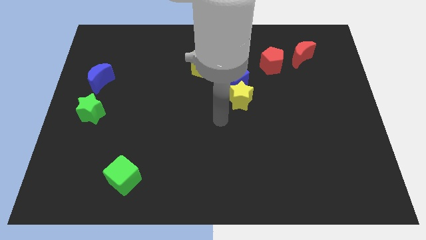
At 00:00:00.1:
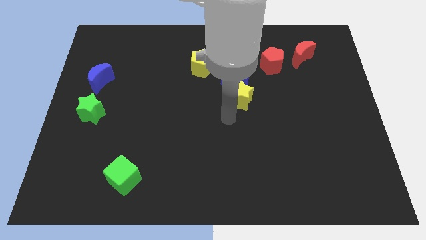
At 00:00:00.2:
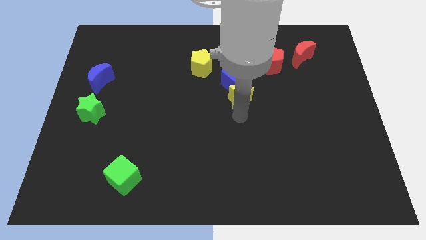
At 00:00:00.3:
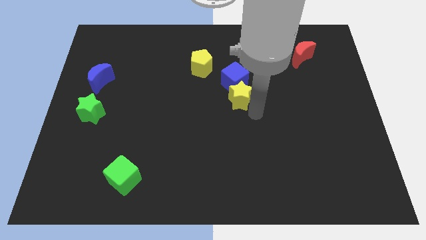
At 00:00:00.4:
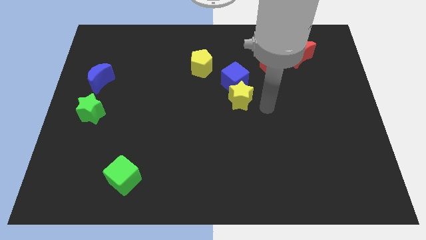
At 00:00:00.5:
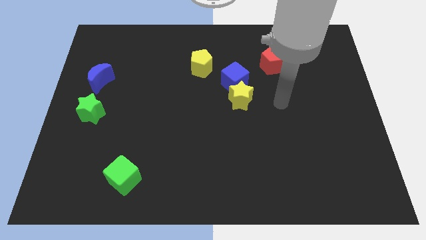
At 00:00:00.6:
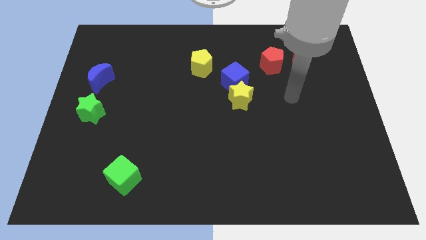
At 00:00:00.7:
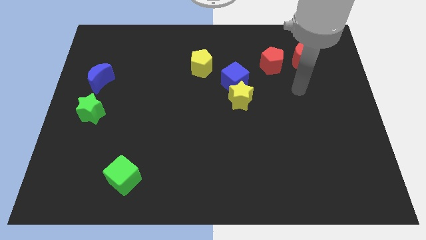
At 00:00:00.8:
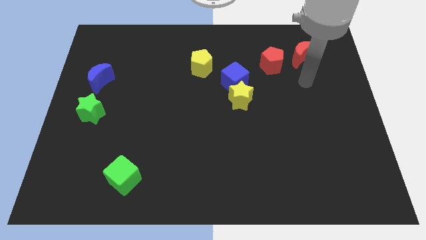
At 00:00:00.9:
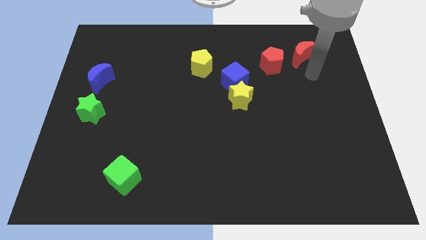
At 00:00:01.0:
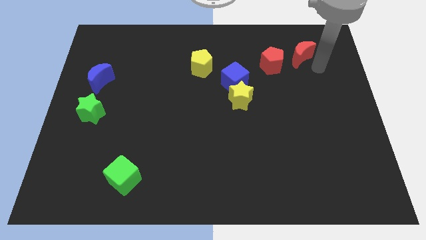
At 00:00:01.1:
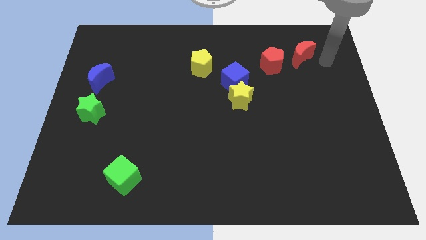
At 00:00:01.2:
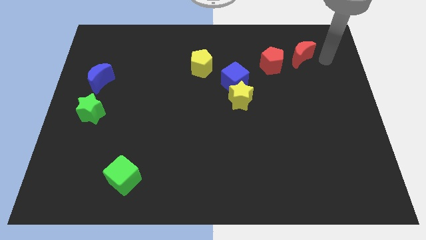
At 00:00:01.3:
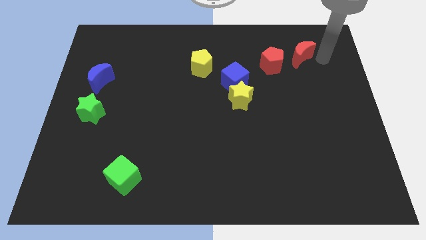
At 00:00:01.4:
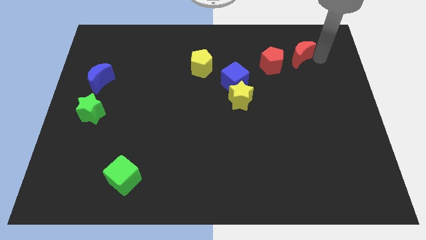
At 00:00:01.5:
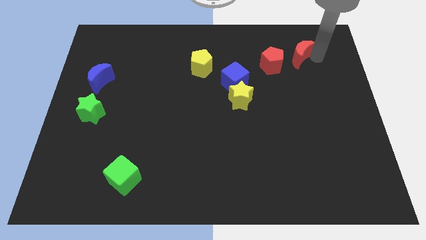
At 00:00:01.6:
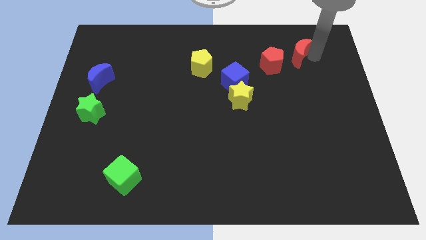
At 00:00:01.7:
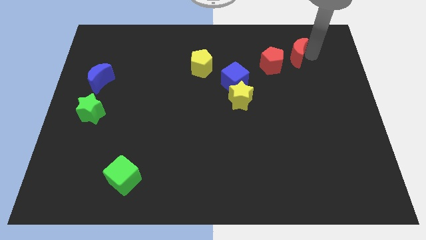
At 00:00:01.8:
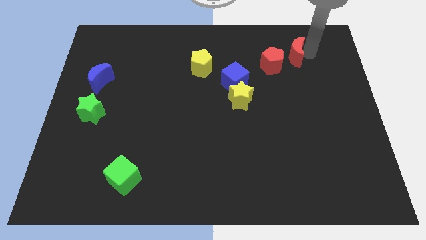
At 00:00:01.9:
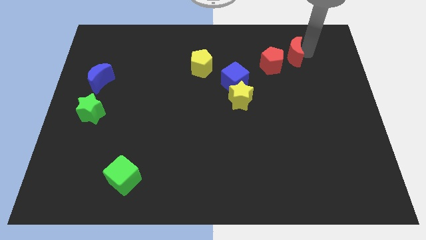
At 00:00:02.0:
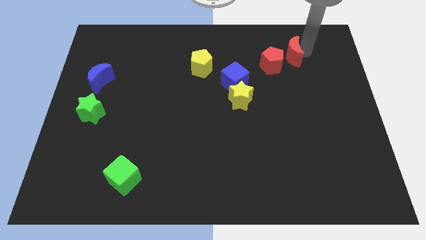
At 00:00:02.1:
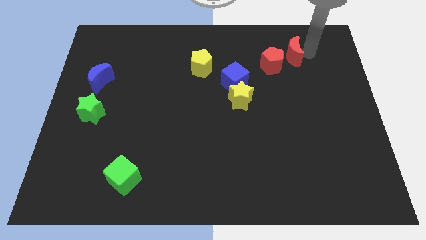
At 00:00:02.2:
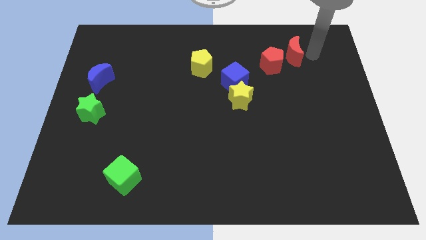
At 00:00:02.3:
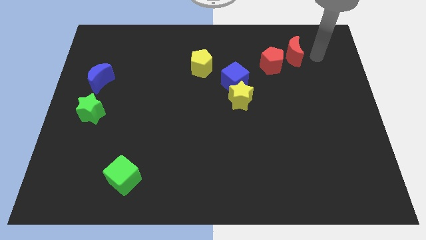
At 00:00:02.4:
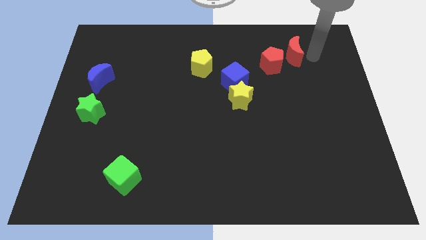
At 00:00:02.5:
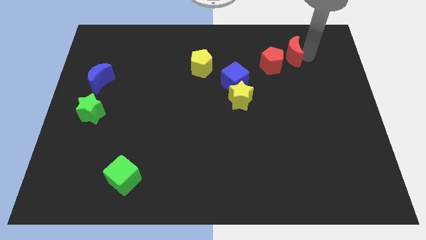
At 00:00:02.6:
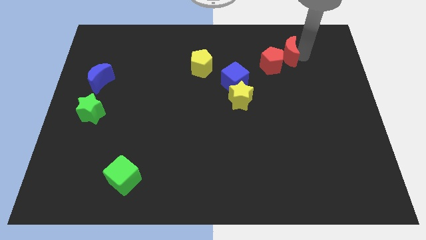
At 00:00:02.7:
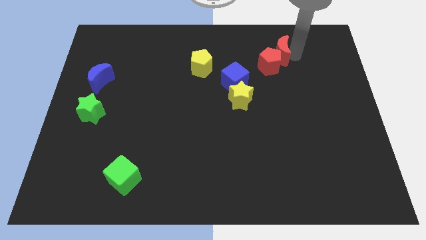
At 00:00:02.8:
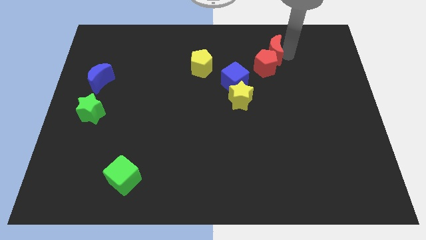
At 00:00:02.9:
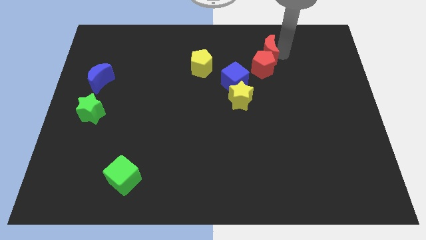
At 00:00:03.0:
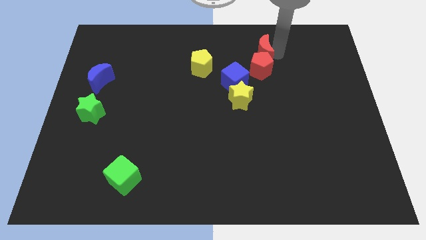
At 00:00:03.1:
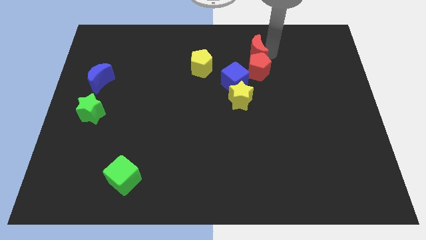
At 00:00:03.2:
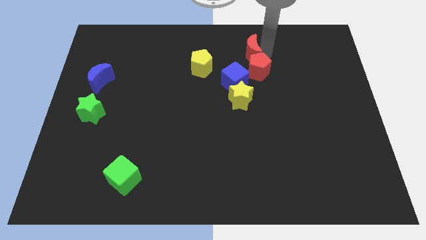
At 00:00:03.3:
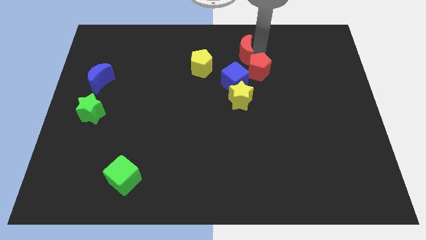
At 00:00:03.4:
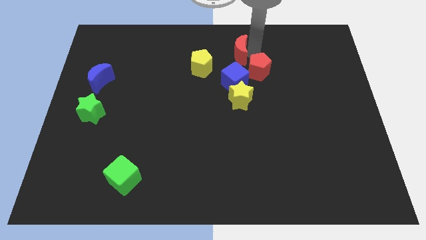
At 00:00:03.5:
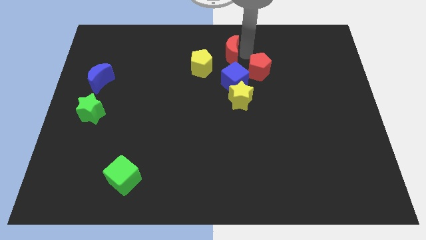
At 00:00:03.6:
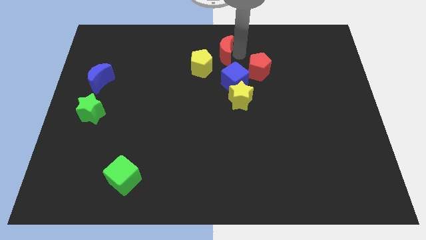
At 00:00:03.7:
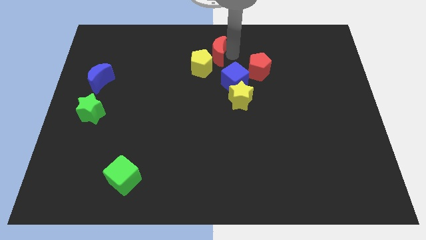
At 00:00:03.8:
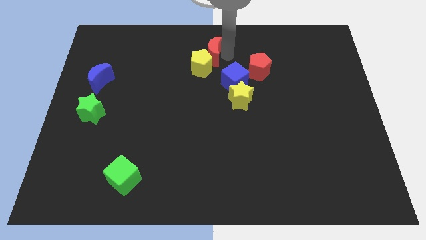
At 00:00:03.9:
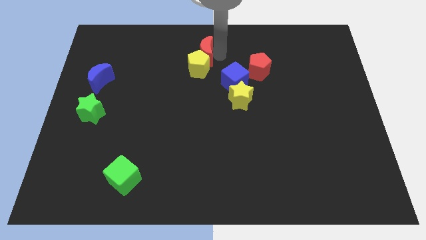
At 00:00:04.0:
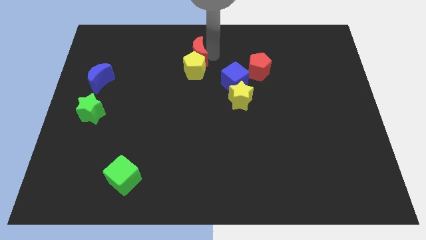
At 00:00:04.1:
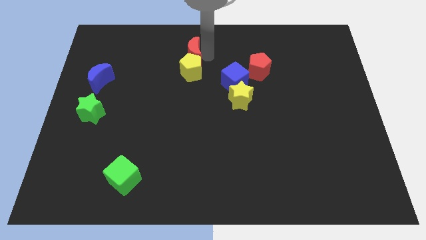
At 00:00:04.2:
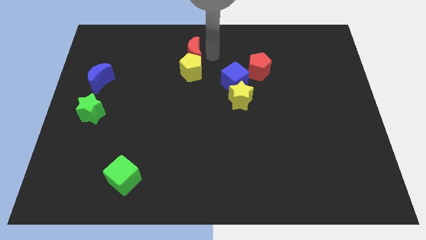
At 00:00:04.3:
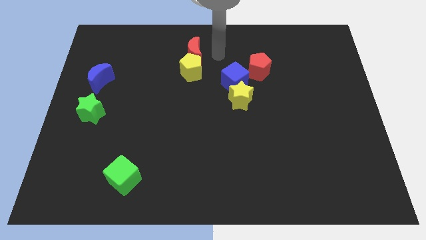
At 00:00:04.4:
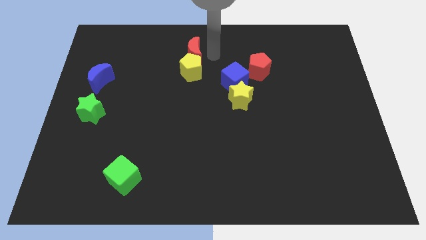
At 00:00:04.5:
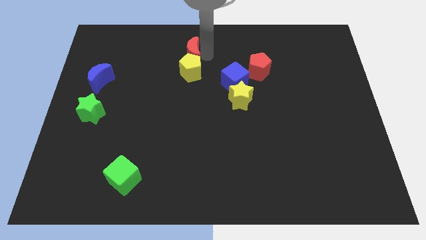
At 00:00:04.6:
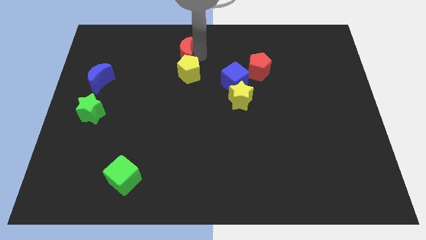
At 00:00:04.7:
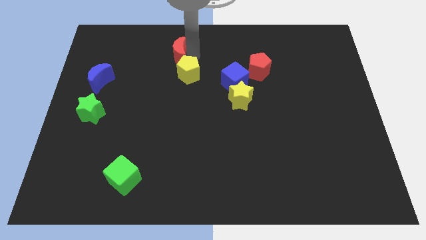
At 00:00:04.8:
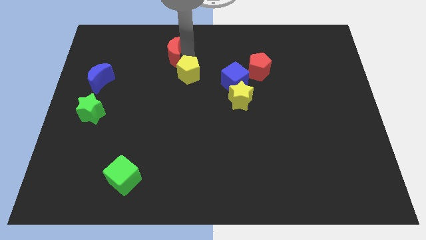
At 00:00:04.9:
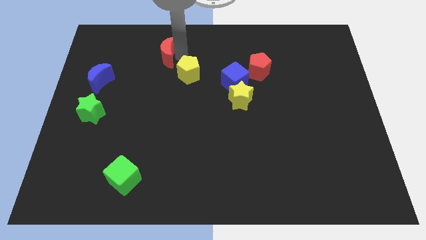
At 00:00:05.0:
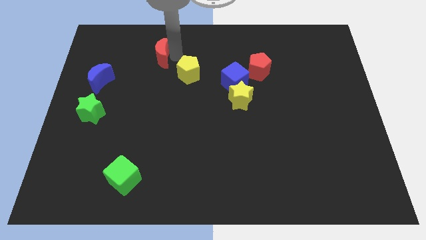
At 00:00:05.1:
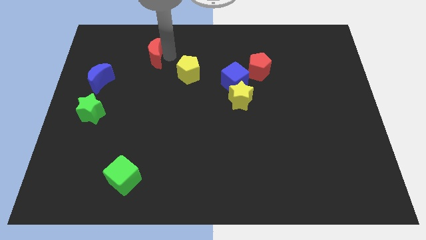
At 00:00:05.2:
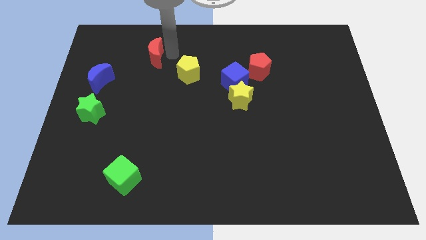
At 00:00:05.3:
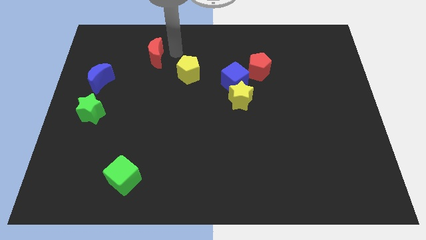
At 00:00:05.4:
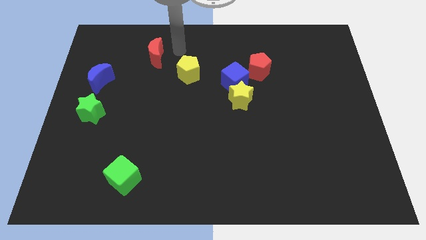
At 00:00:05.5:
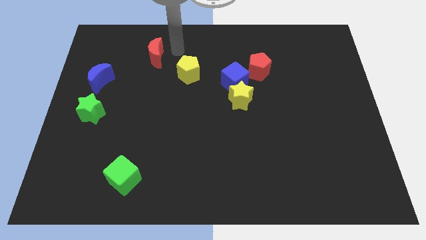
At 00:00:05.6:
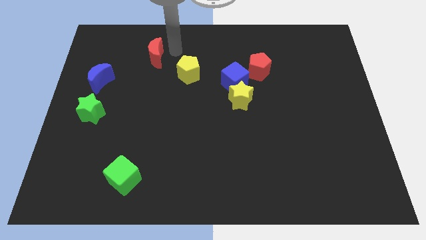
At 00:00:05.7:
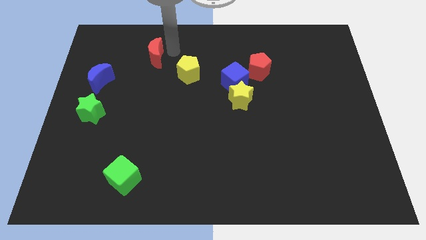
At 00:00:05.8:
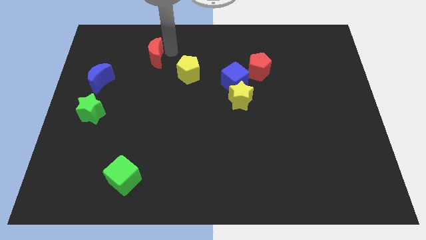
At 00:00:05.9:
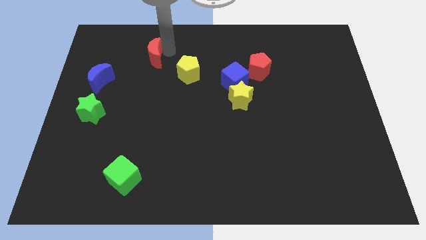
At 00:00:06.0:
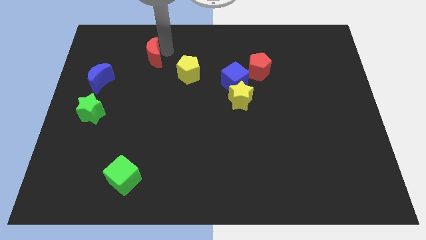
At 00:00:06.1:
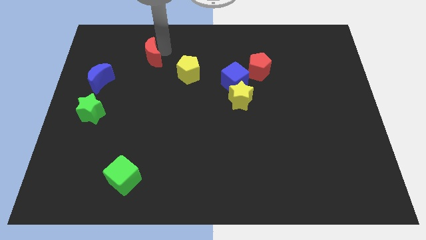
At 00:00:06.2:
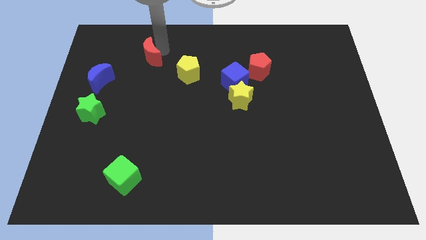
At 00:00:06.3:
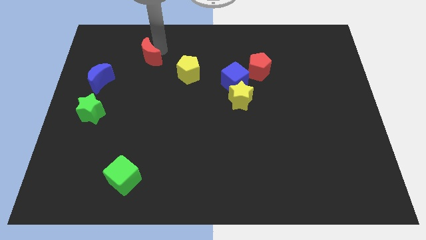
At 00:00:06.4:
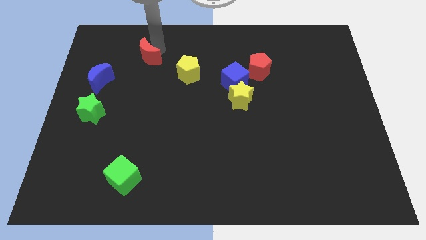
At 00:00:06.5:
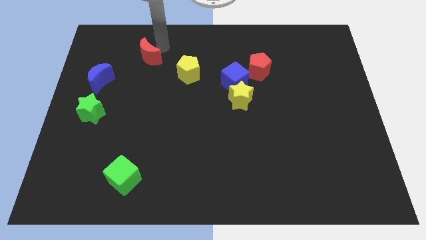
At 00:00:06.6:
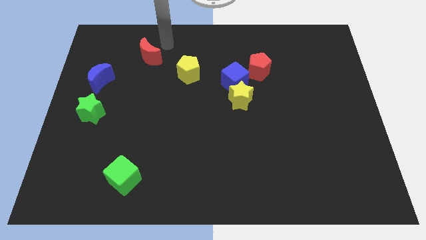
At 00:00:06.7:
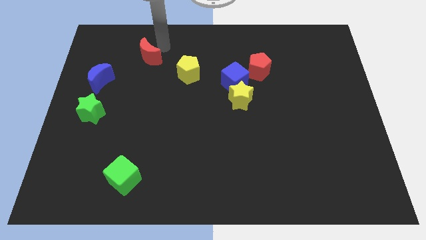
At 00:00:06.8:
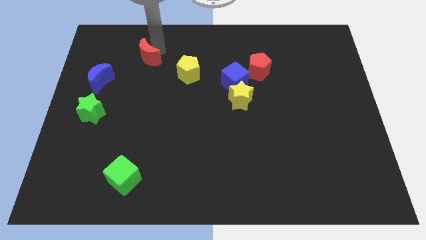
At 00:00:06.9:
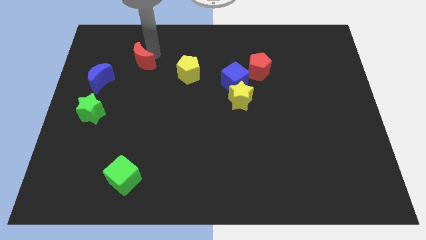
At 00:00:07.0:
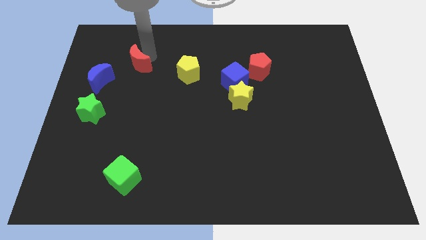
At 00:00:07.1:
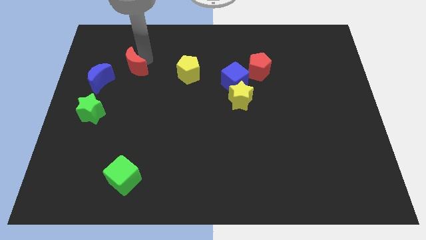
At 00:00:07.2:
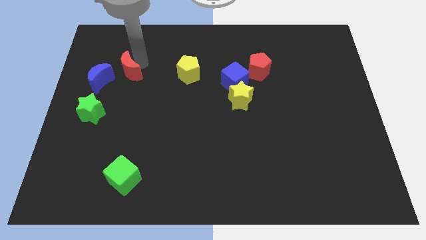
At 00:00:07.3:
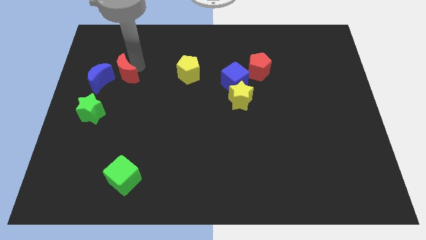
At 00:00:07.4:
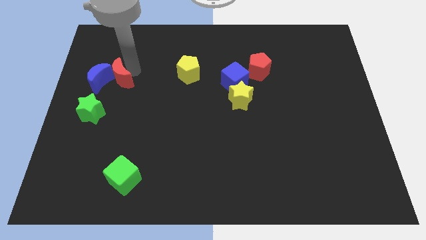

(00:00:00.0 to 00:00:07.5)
slide the red moon next to the blue moon
